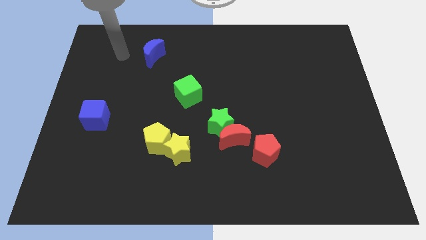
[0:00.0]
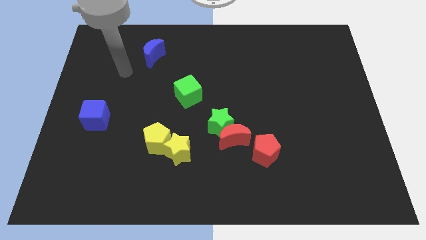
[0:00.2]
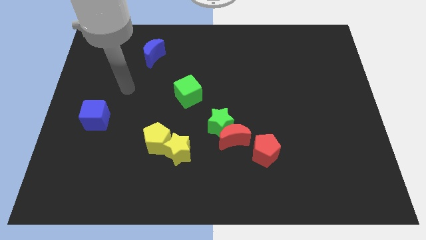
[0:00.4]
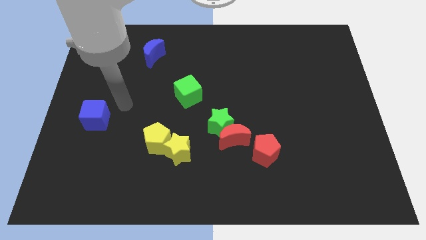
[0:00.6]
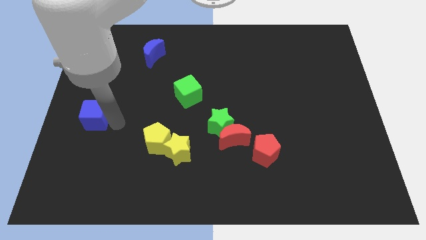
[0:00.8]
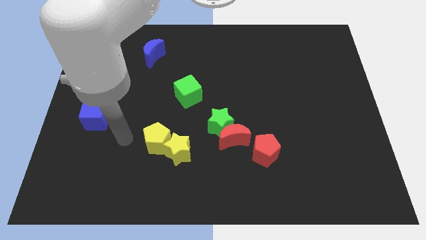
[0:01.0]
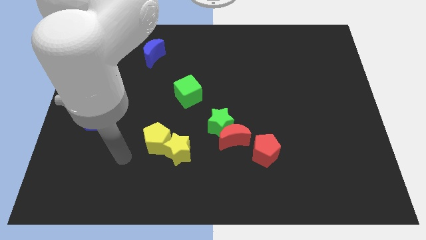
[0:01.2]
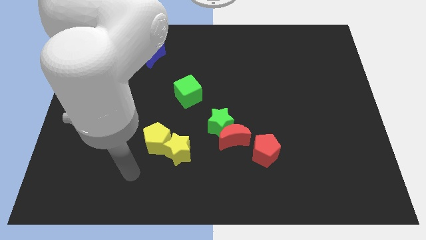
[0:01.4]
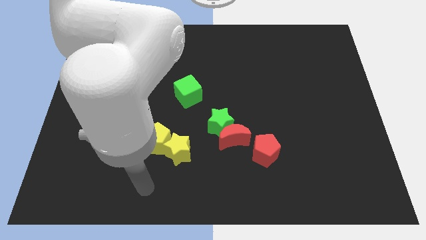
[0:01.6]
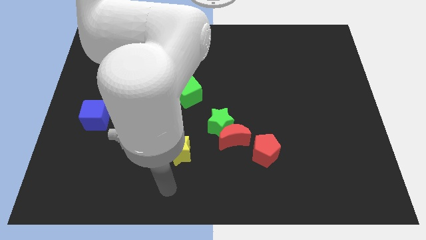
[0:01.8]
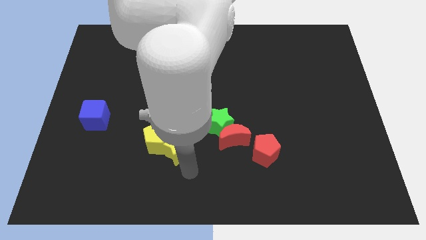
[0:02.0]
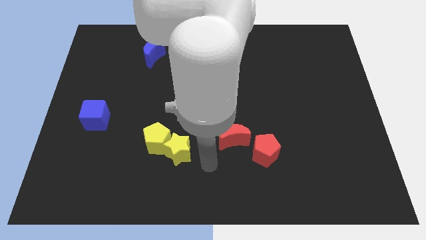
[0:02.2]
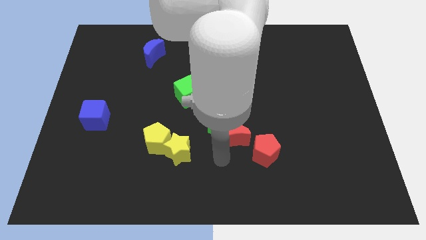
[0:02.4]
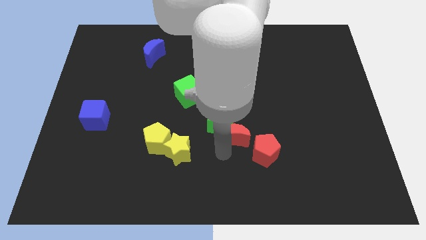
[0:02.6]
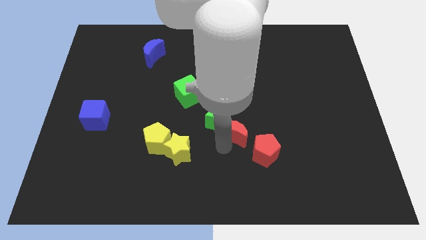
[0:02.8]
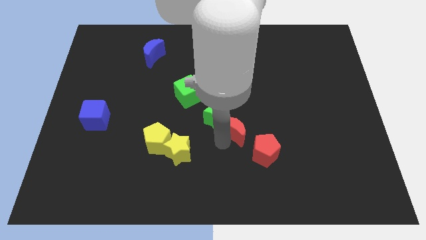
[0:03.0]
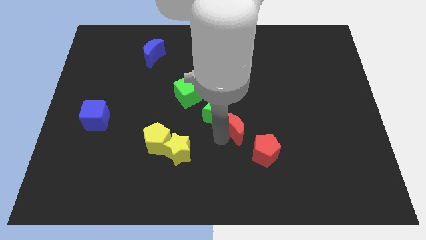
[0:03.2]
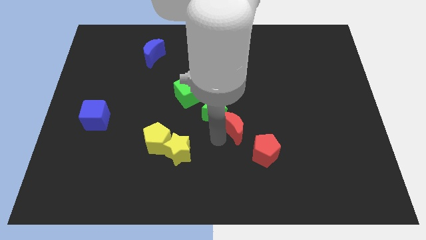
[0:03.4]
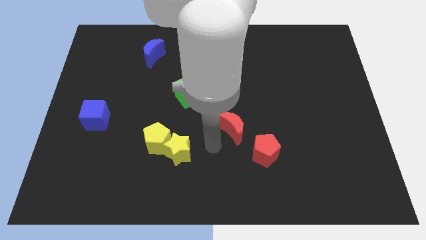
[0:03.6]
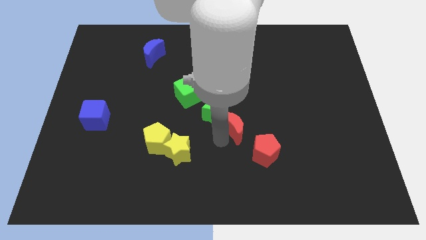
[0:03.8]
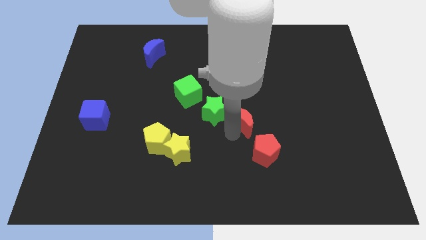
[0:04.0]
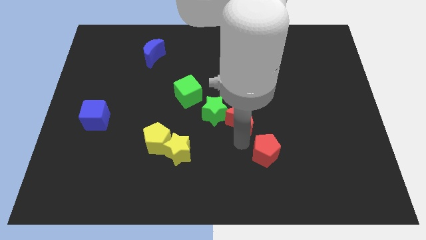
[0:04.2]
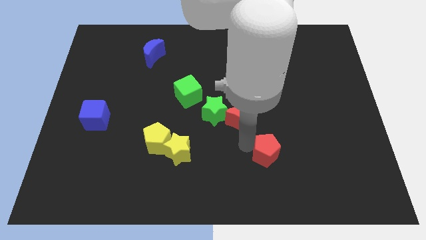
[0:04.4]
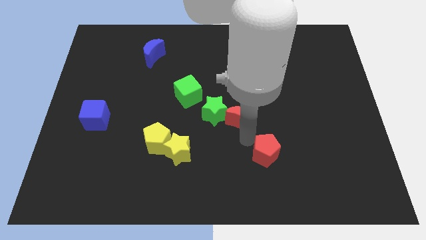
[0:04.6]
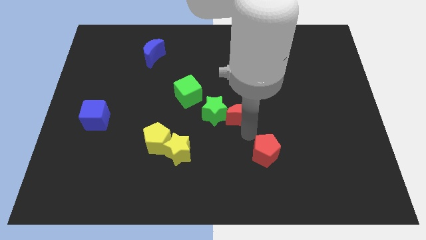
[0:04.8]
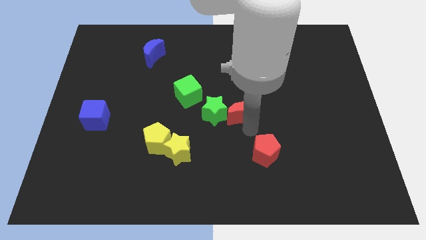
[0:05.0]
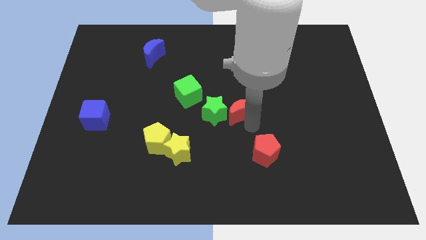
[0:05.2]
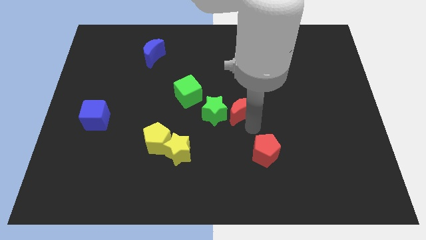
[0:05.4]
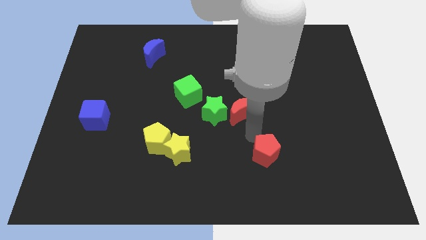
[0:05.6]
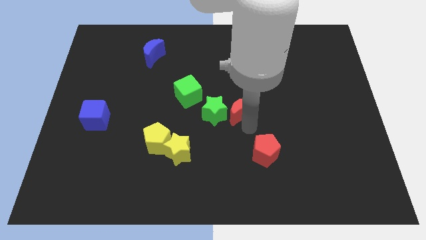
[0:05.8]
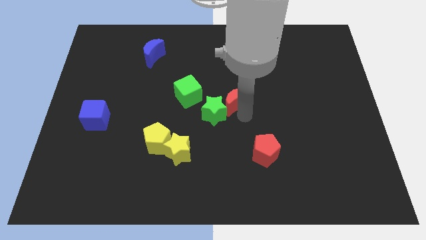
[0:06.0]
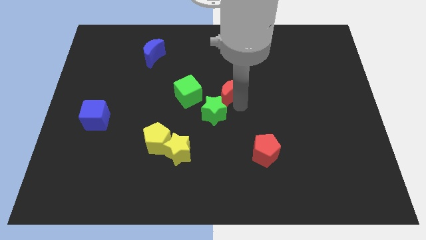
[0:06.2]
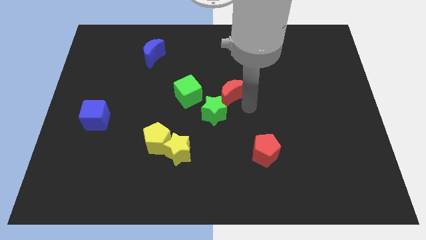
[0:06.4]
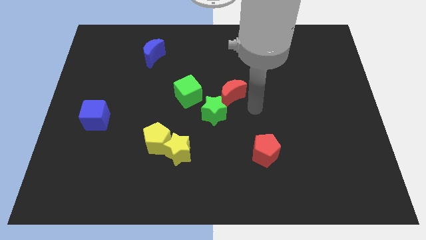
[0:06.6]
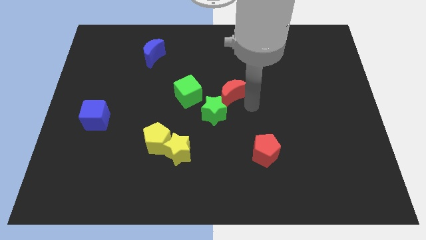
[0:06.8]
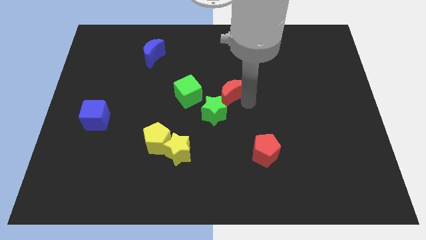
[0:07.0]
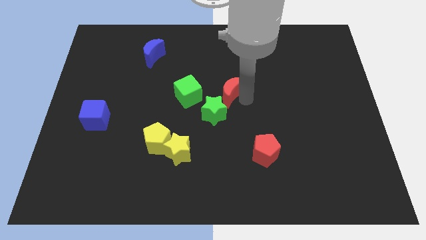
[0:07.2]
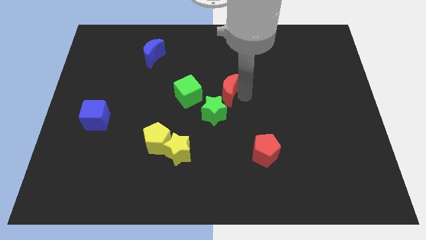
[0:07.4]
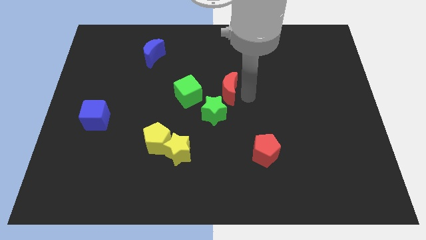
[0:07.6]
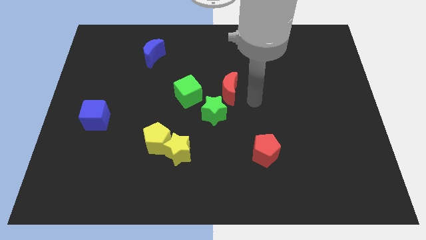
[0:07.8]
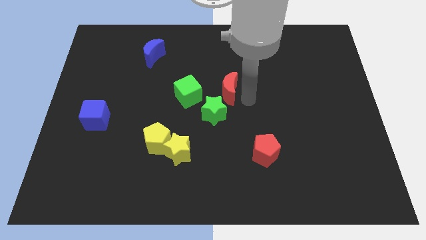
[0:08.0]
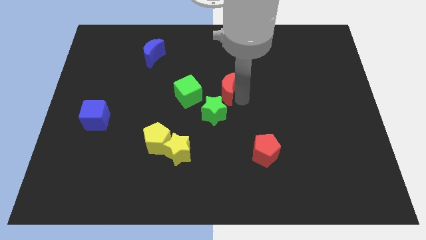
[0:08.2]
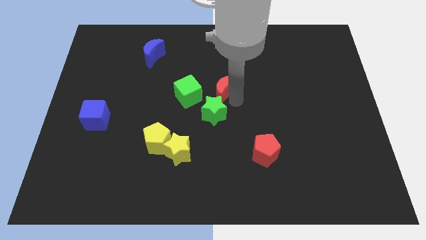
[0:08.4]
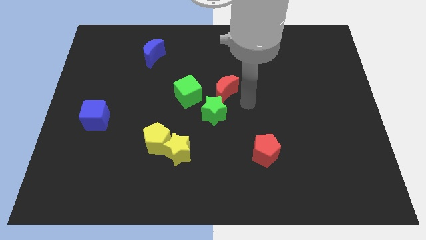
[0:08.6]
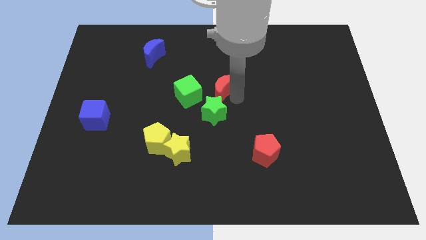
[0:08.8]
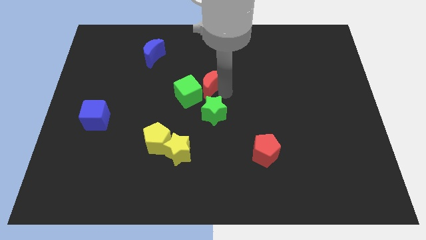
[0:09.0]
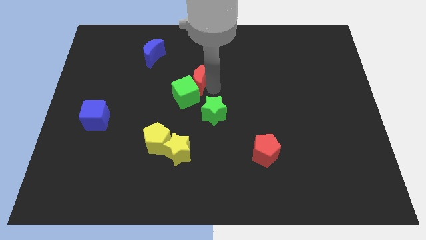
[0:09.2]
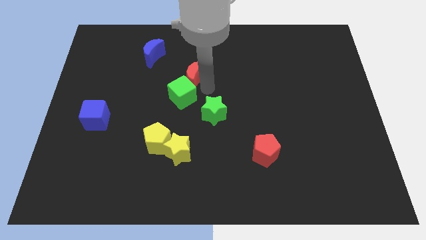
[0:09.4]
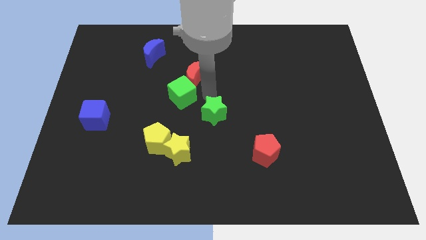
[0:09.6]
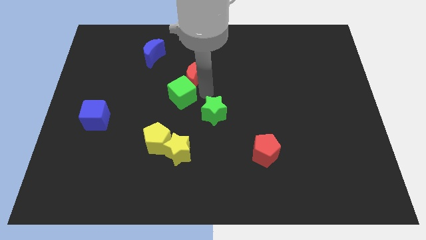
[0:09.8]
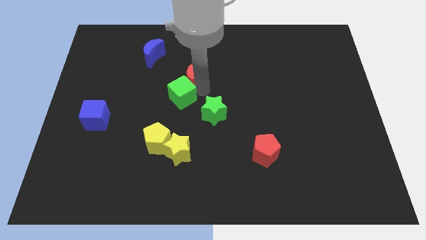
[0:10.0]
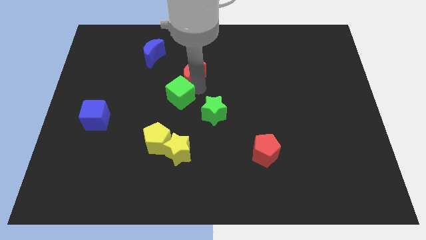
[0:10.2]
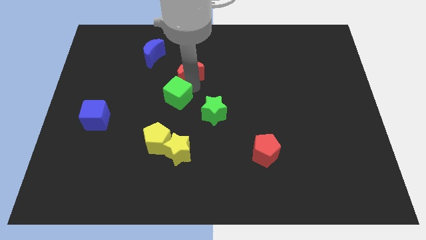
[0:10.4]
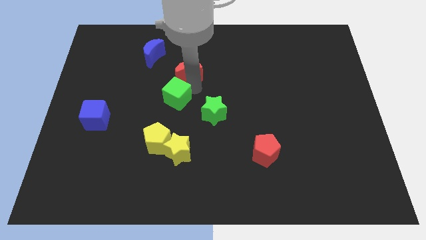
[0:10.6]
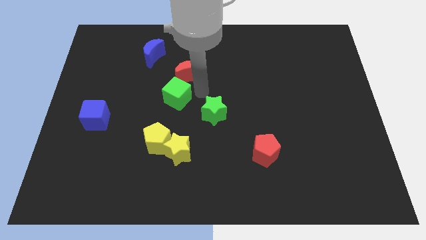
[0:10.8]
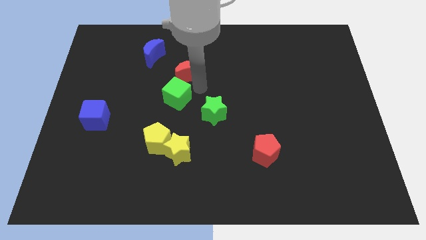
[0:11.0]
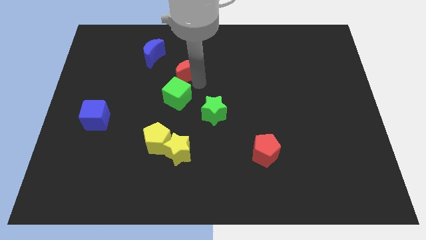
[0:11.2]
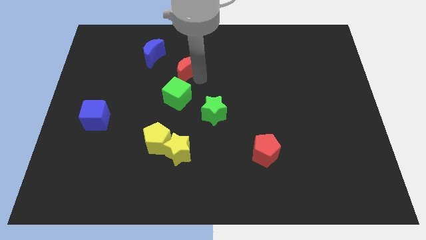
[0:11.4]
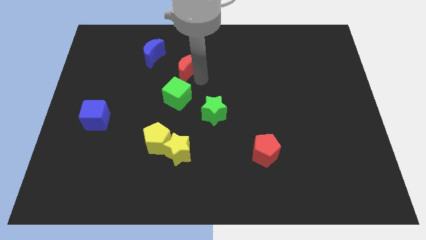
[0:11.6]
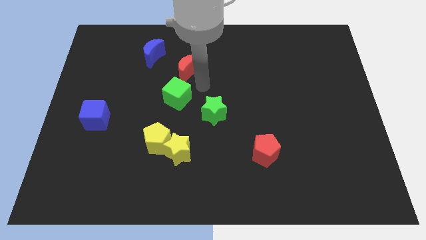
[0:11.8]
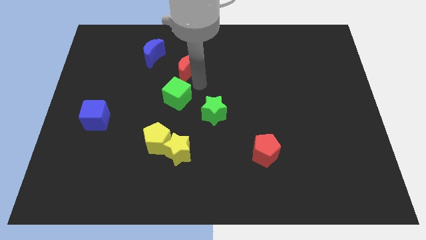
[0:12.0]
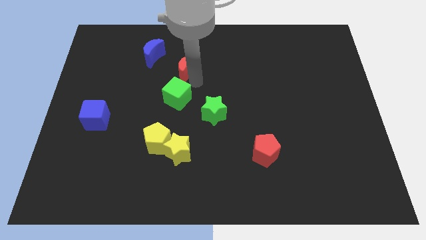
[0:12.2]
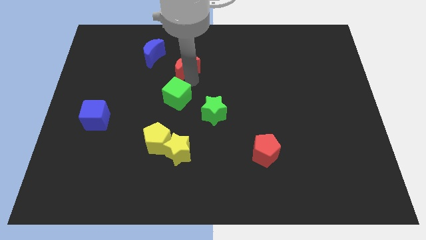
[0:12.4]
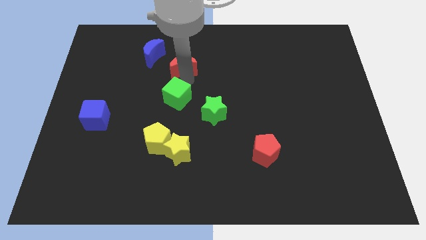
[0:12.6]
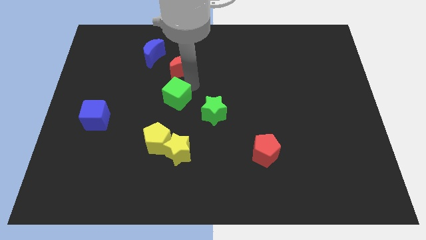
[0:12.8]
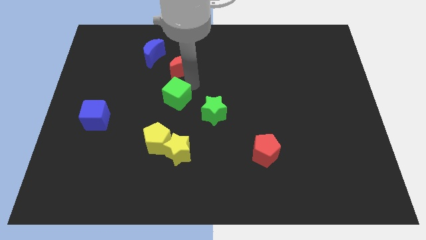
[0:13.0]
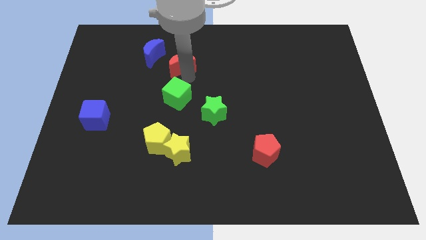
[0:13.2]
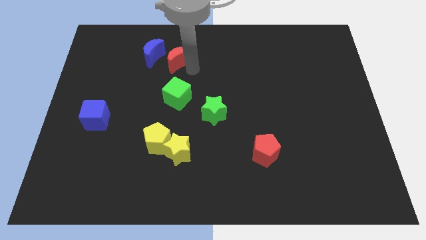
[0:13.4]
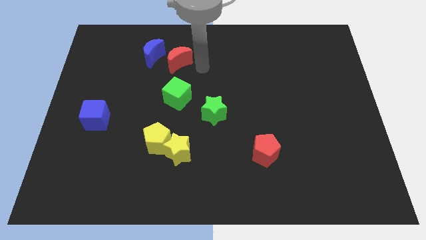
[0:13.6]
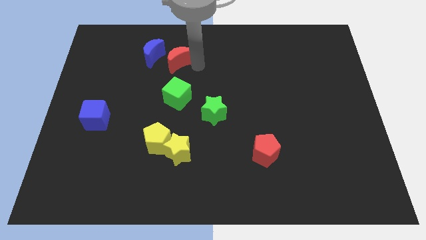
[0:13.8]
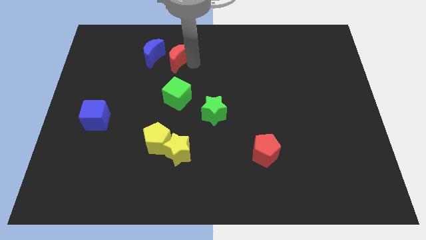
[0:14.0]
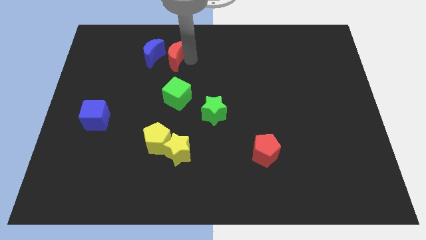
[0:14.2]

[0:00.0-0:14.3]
slide the red moon to the blue moon

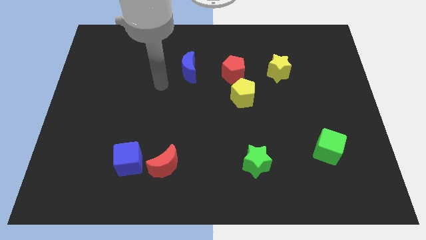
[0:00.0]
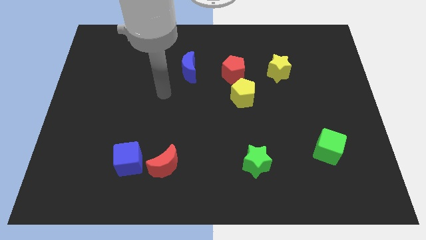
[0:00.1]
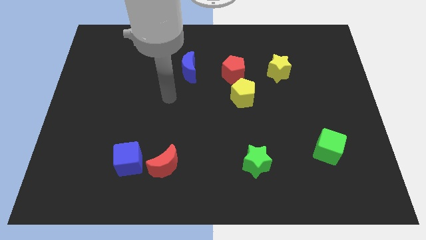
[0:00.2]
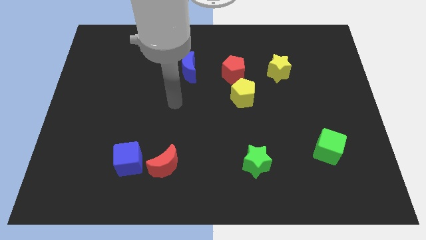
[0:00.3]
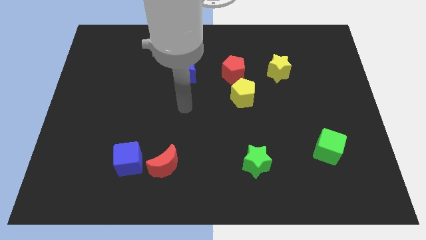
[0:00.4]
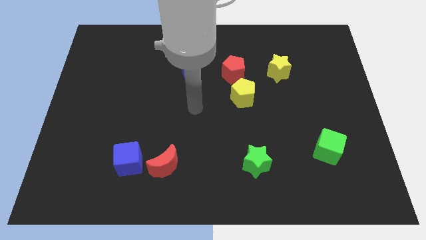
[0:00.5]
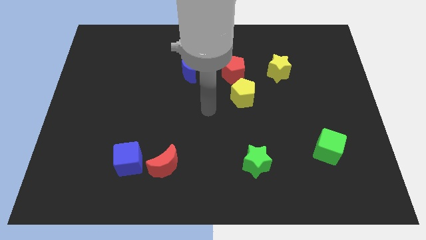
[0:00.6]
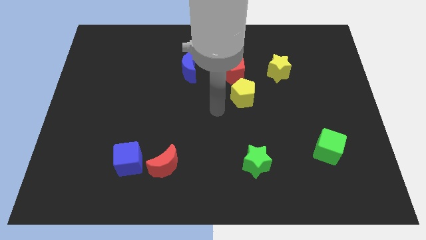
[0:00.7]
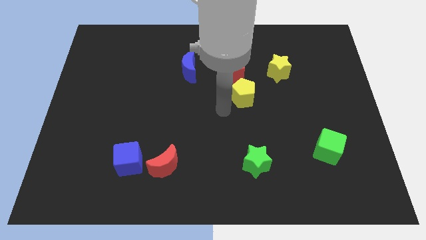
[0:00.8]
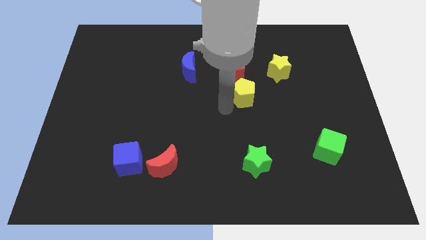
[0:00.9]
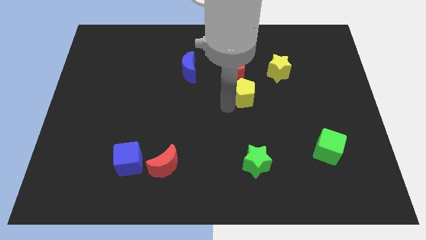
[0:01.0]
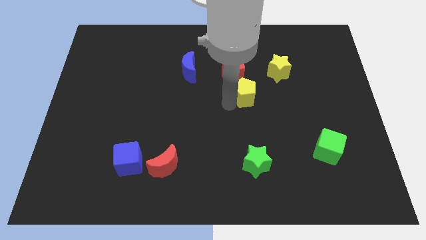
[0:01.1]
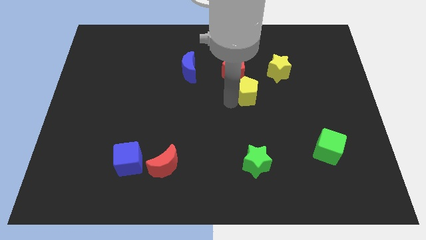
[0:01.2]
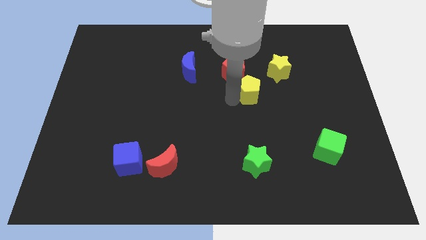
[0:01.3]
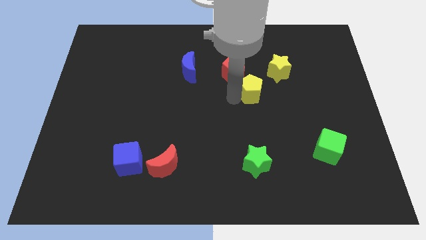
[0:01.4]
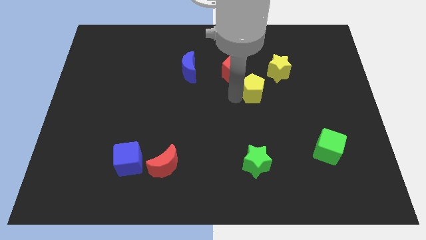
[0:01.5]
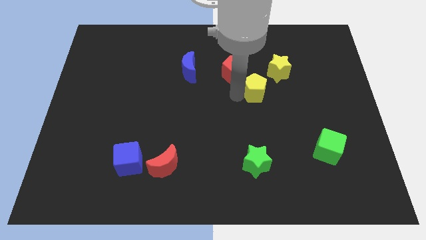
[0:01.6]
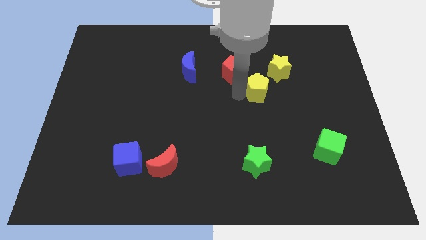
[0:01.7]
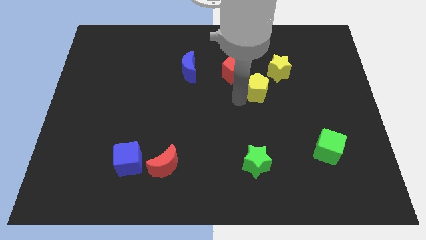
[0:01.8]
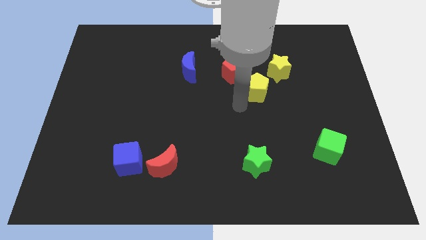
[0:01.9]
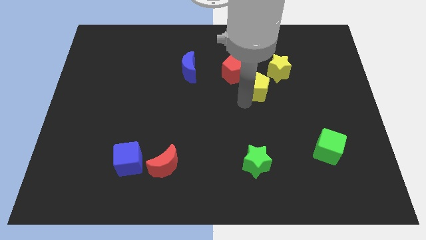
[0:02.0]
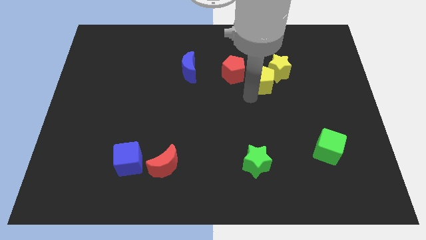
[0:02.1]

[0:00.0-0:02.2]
put the yellow pentagon towards the yellow star
